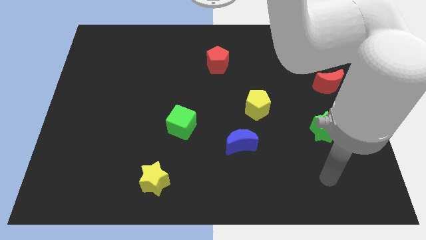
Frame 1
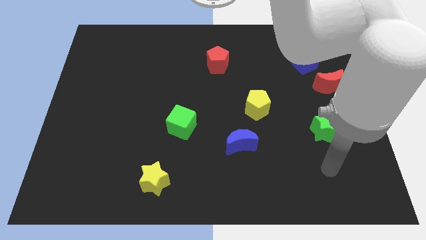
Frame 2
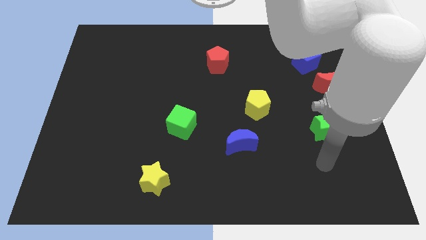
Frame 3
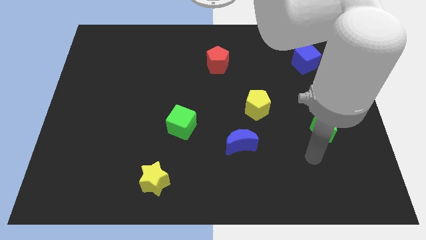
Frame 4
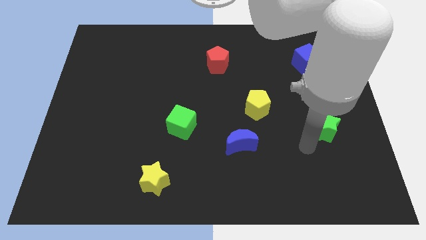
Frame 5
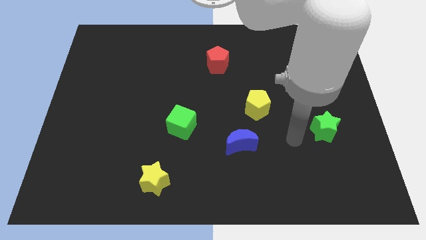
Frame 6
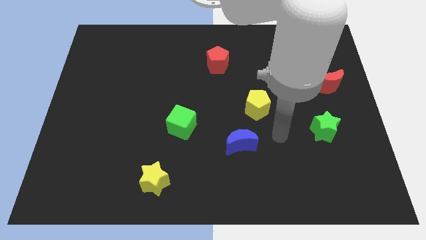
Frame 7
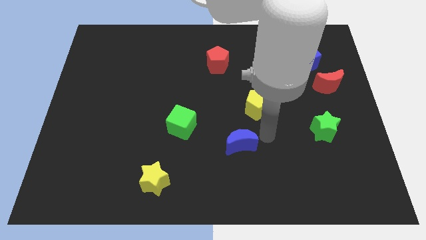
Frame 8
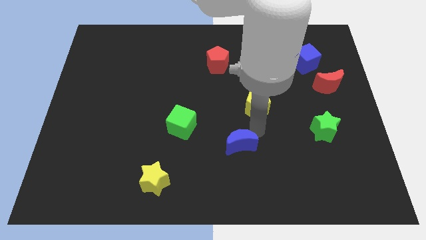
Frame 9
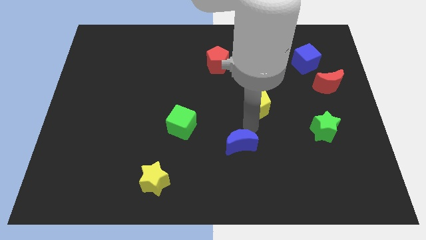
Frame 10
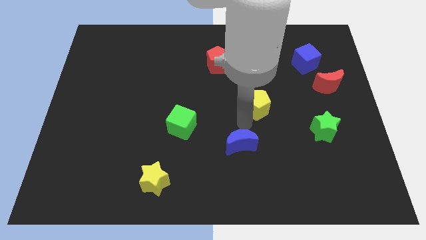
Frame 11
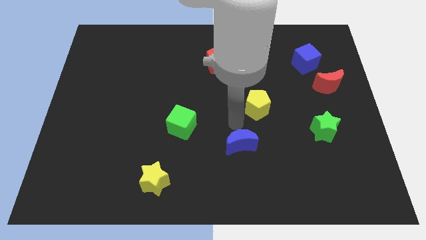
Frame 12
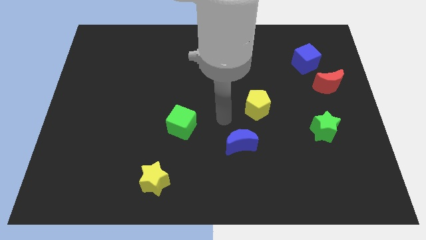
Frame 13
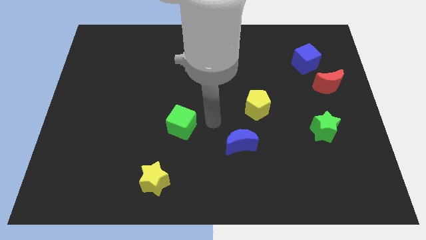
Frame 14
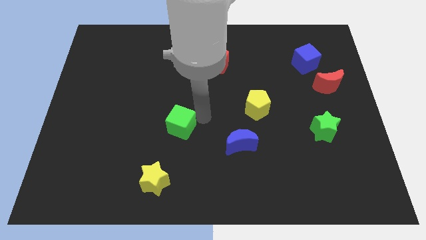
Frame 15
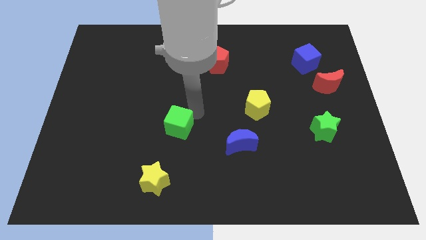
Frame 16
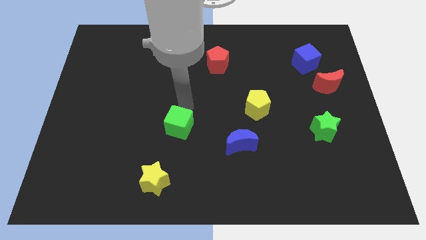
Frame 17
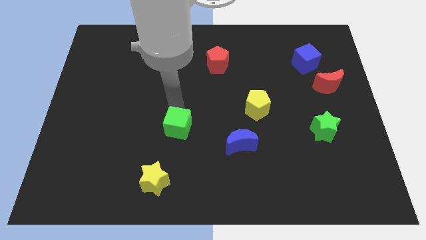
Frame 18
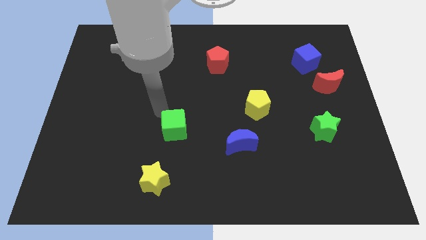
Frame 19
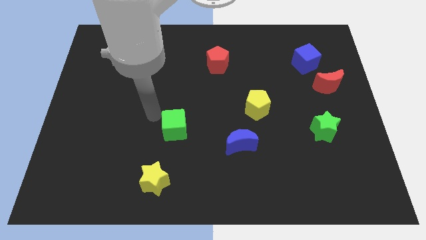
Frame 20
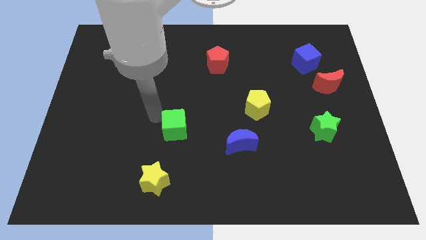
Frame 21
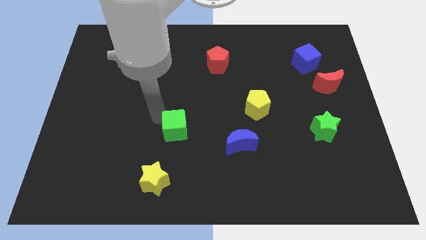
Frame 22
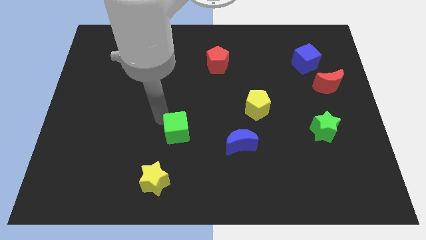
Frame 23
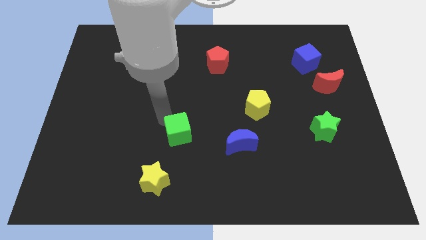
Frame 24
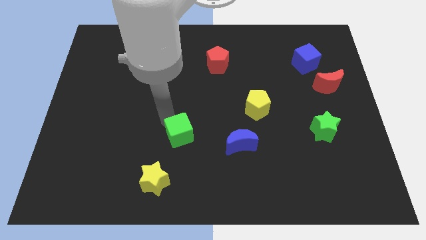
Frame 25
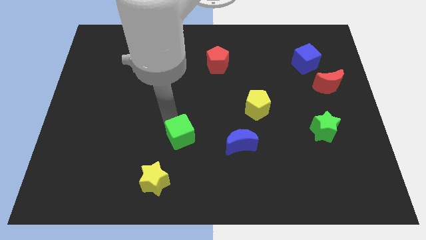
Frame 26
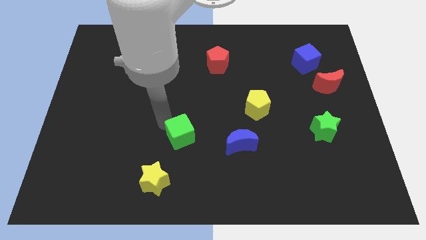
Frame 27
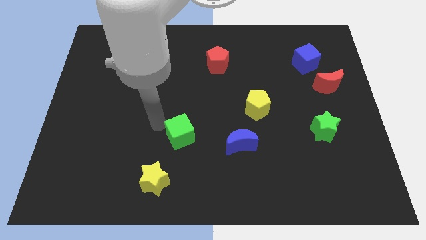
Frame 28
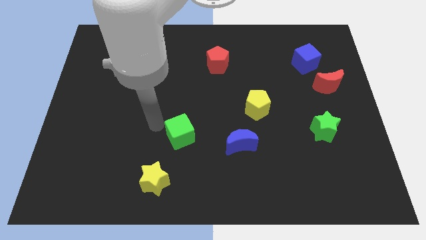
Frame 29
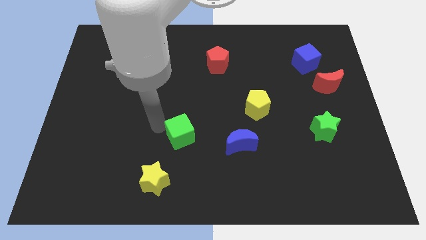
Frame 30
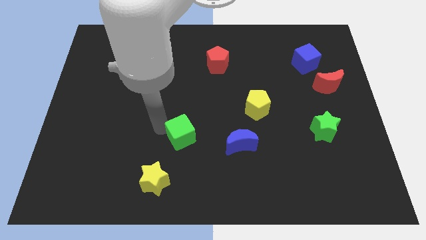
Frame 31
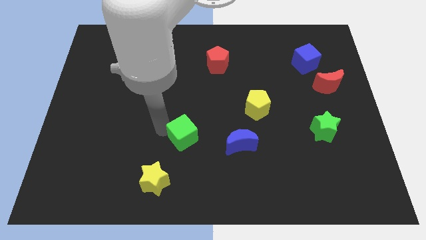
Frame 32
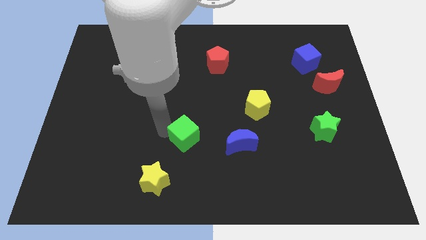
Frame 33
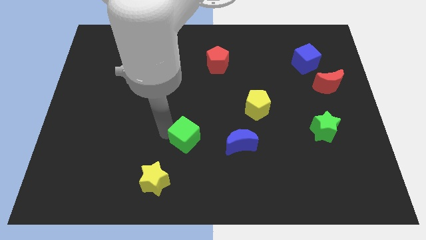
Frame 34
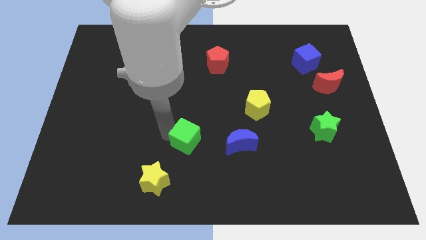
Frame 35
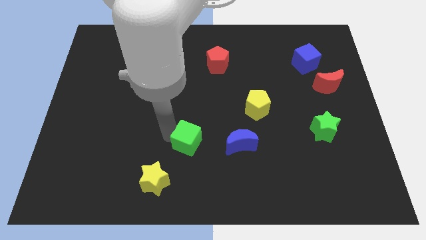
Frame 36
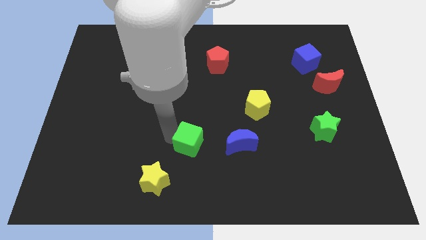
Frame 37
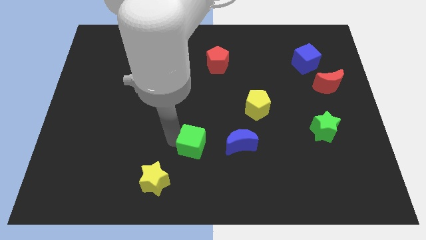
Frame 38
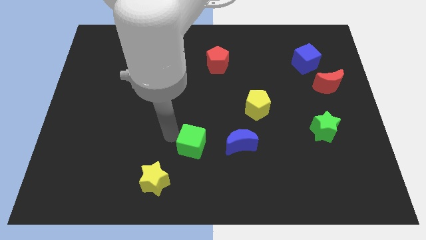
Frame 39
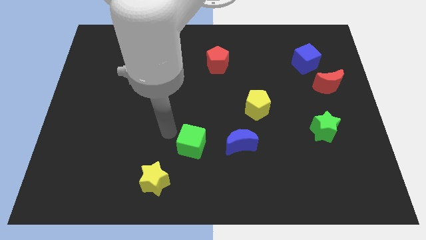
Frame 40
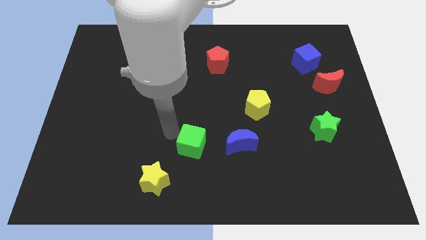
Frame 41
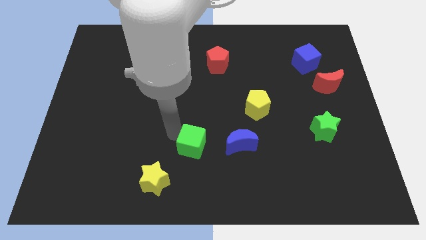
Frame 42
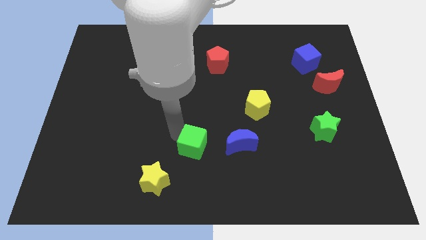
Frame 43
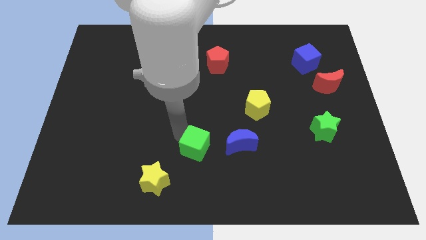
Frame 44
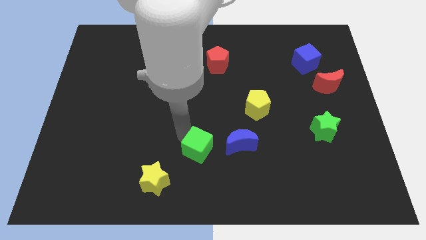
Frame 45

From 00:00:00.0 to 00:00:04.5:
push the green cube a little downwards and then to the right

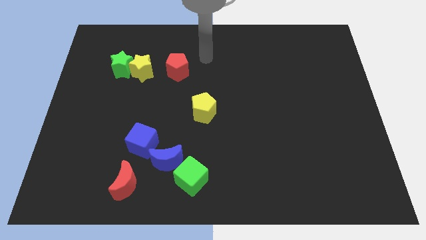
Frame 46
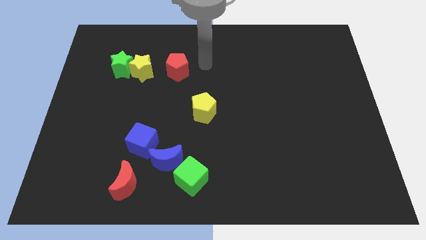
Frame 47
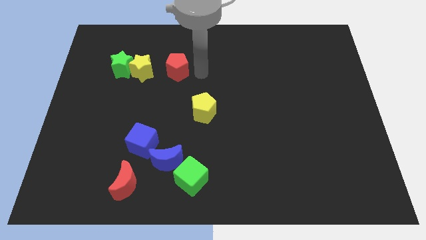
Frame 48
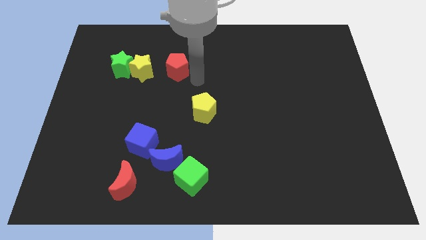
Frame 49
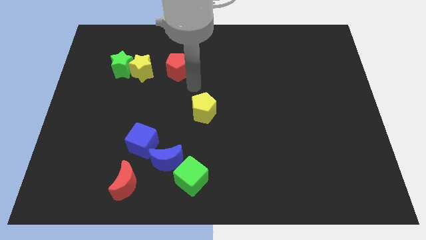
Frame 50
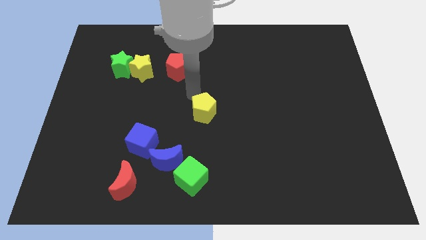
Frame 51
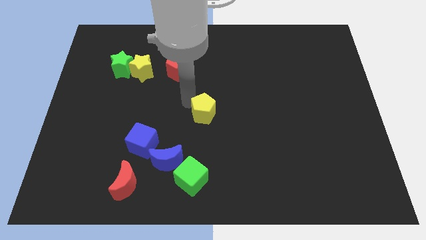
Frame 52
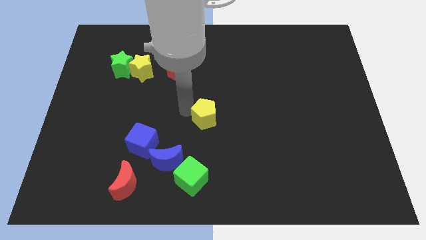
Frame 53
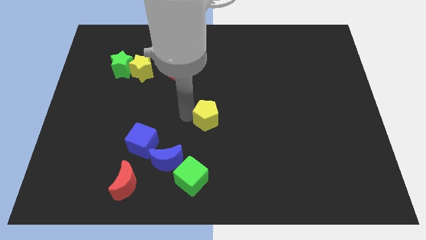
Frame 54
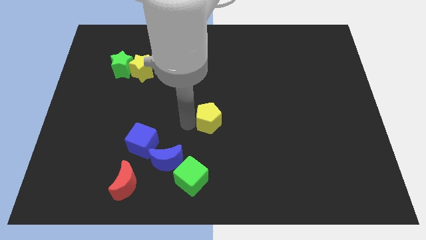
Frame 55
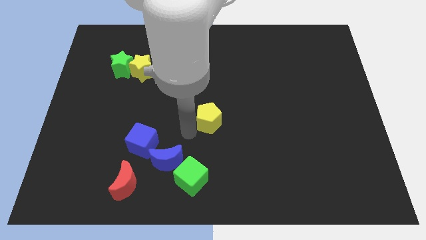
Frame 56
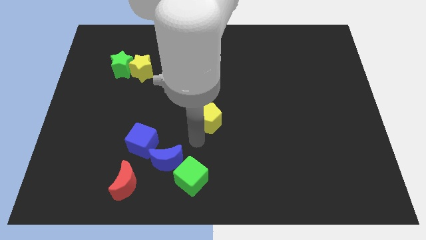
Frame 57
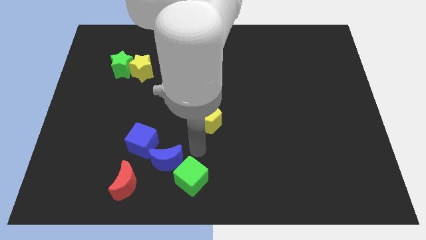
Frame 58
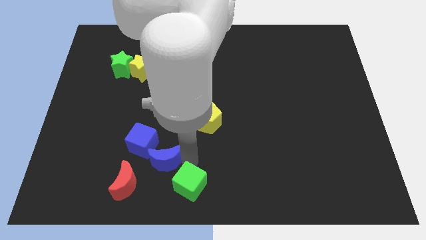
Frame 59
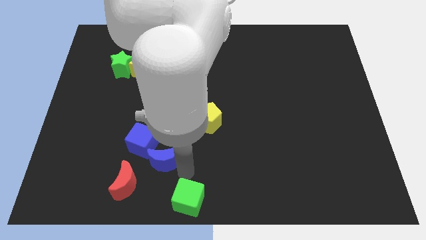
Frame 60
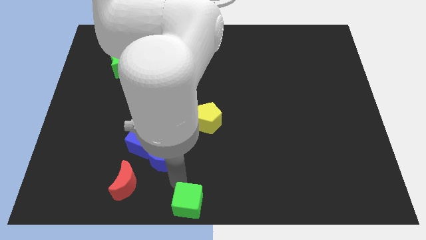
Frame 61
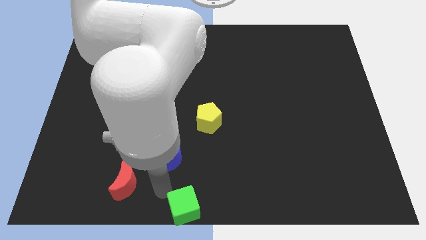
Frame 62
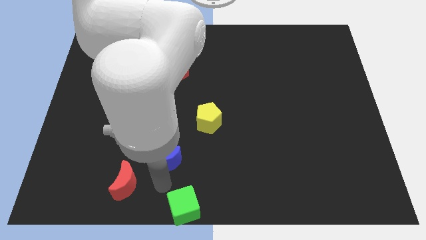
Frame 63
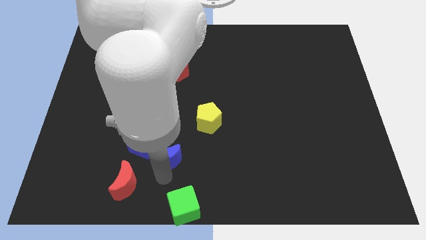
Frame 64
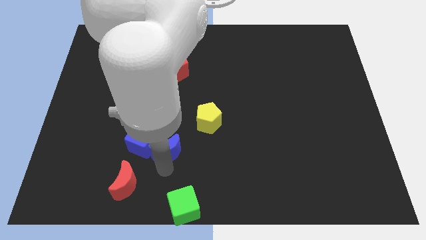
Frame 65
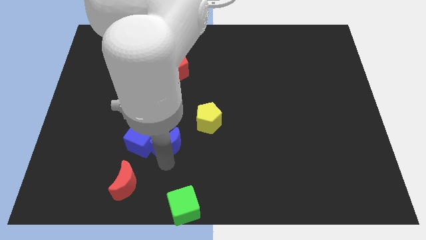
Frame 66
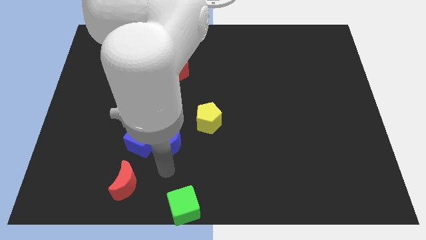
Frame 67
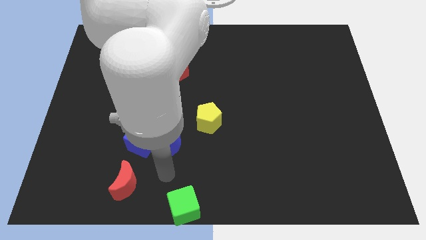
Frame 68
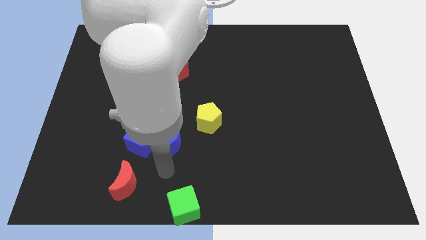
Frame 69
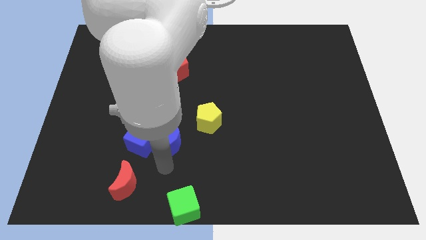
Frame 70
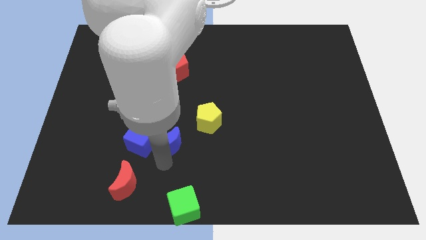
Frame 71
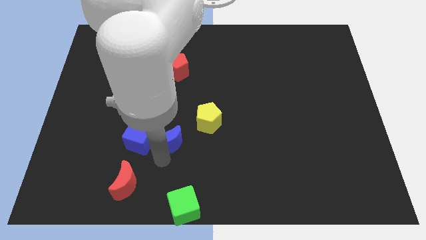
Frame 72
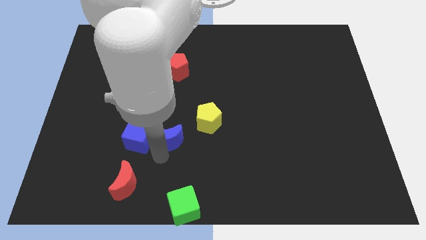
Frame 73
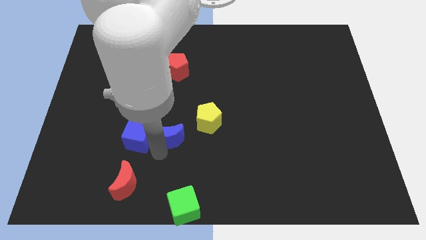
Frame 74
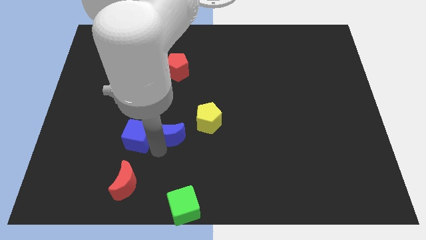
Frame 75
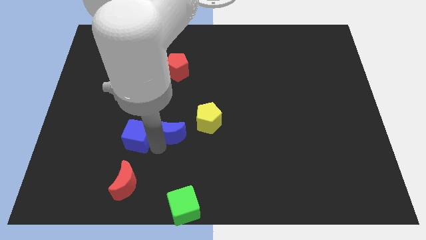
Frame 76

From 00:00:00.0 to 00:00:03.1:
slightly move the blue moon upwards

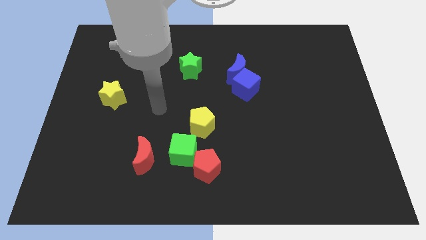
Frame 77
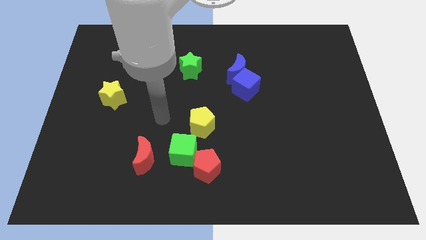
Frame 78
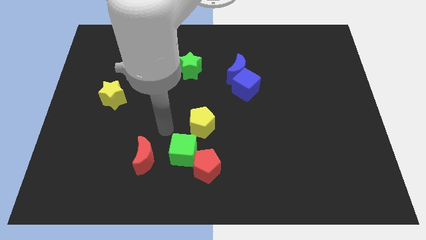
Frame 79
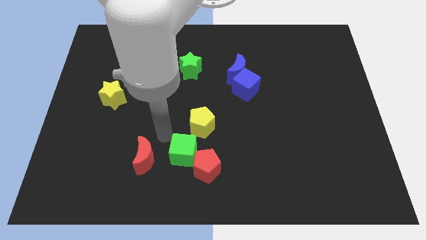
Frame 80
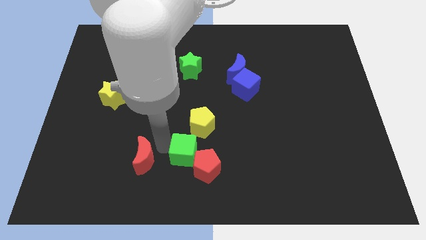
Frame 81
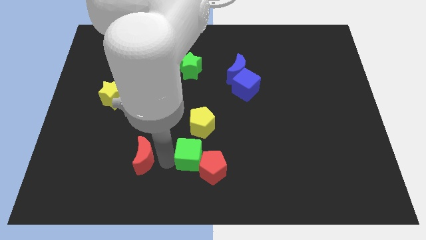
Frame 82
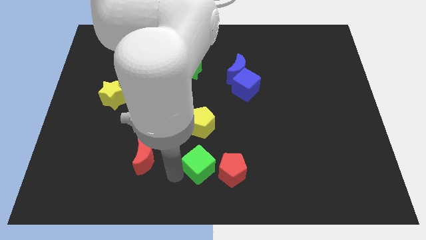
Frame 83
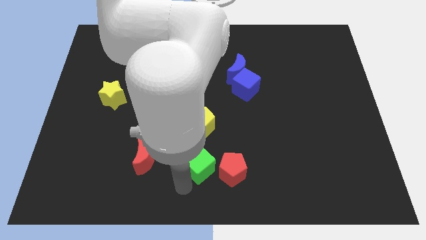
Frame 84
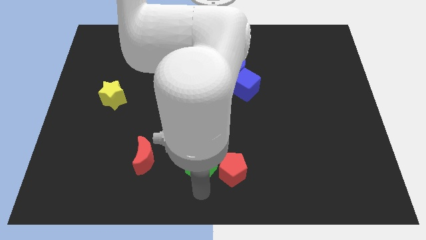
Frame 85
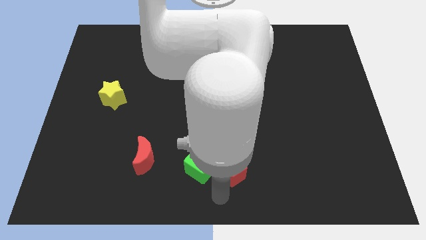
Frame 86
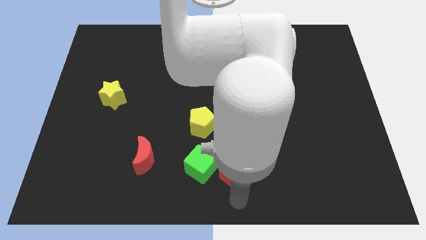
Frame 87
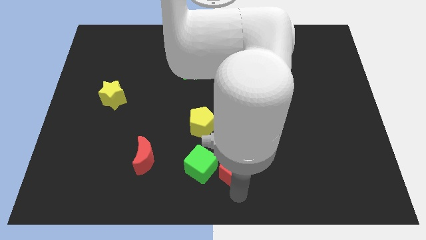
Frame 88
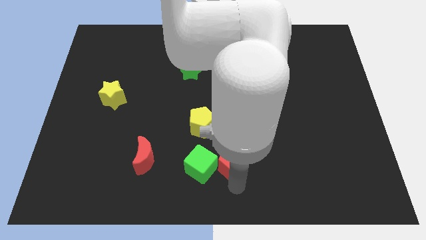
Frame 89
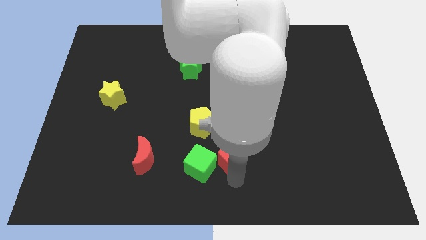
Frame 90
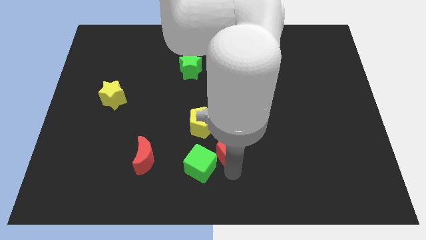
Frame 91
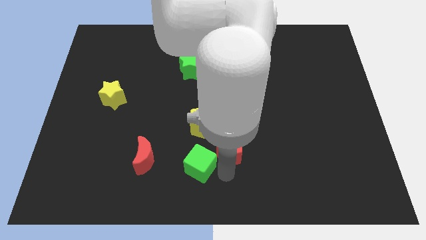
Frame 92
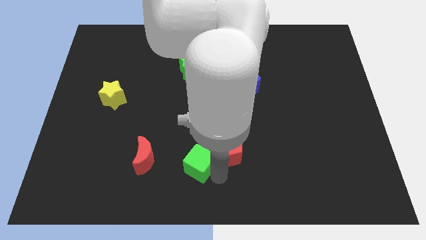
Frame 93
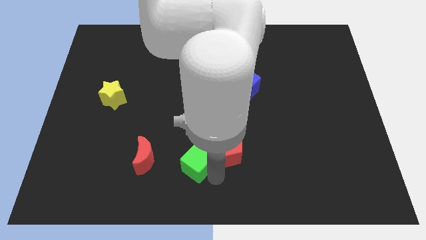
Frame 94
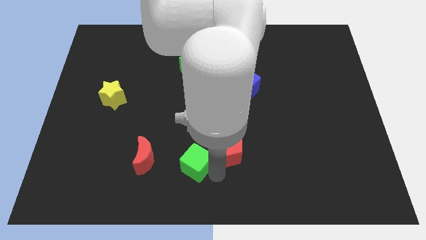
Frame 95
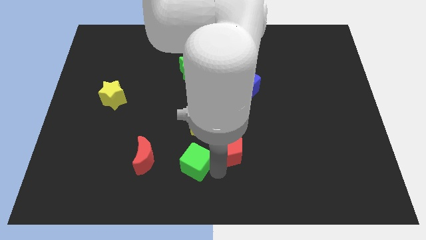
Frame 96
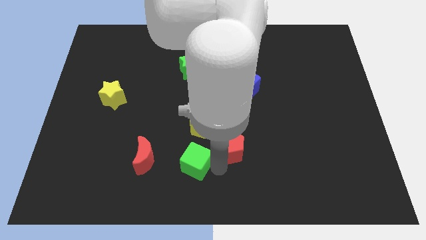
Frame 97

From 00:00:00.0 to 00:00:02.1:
slide the red pentagon somewhat up and right diagonally
